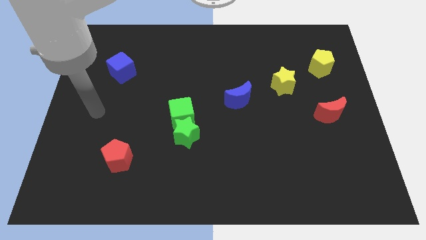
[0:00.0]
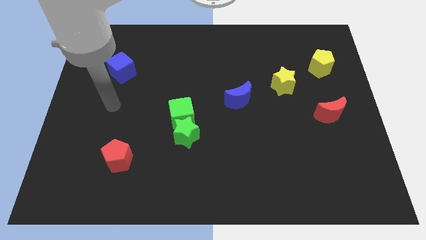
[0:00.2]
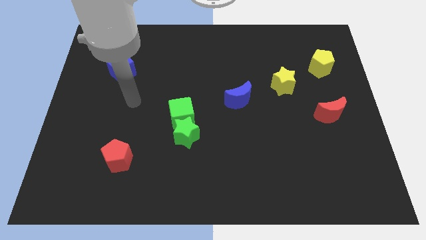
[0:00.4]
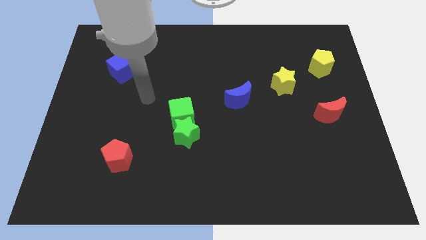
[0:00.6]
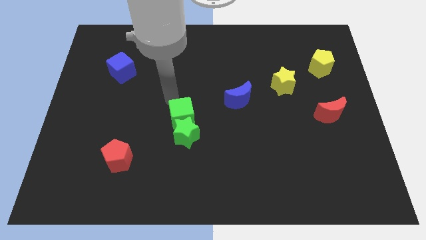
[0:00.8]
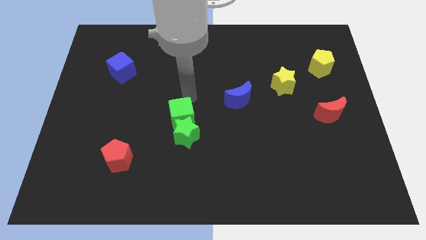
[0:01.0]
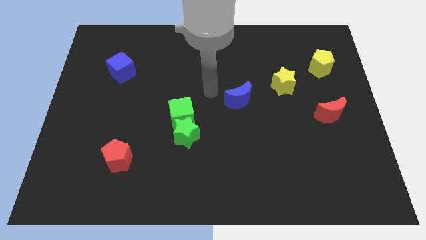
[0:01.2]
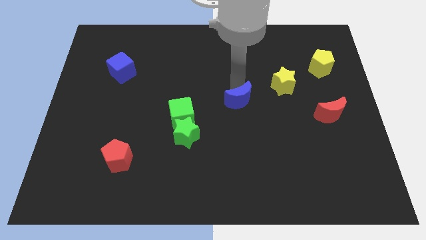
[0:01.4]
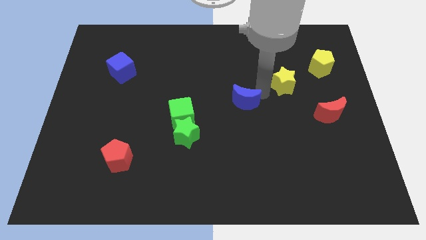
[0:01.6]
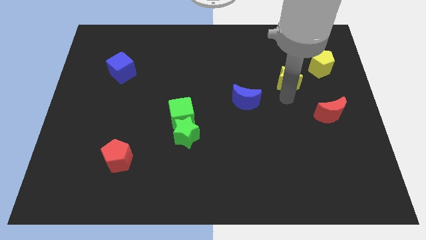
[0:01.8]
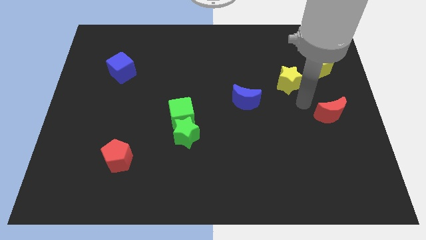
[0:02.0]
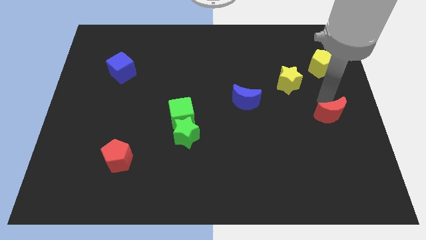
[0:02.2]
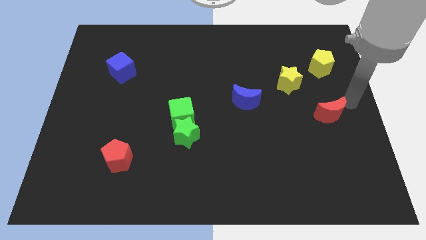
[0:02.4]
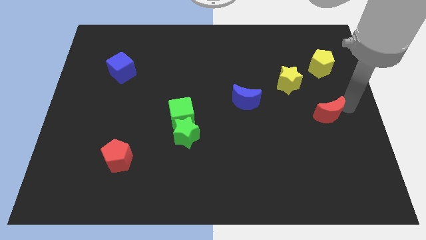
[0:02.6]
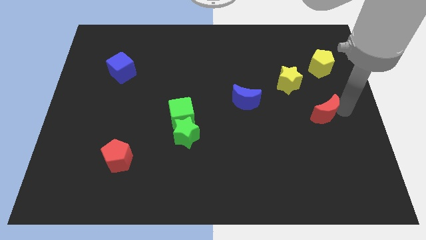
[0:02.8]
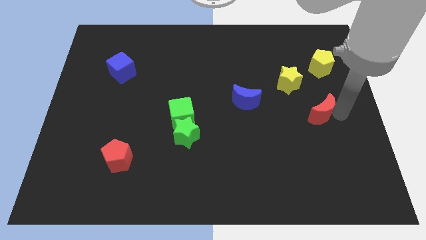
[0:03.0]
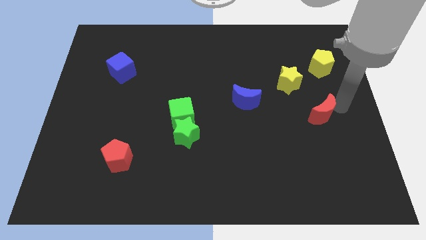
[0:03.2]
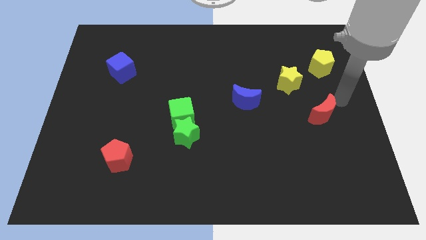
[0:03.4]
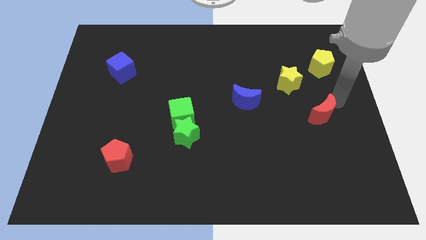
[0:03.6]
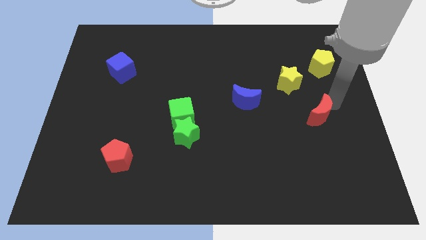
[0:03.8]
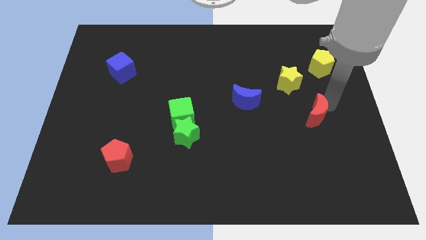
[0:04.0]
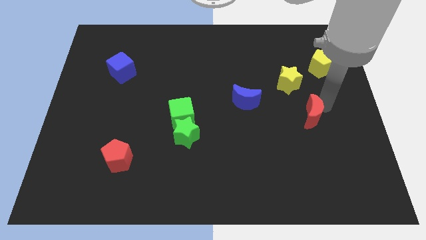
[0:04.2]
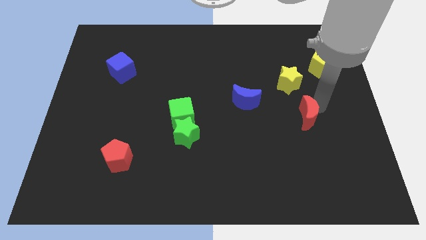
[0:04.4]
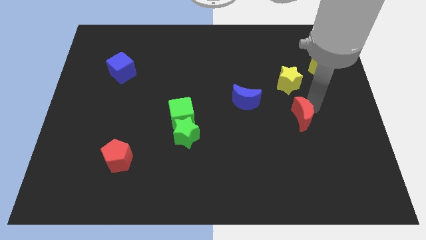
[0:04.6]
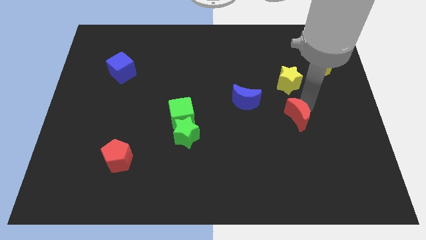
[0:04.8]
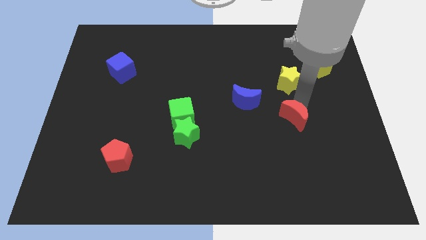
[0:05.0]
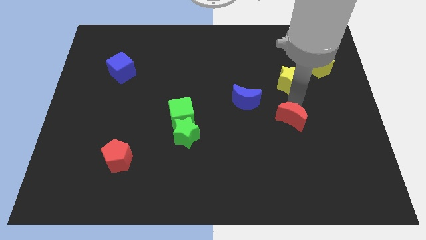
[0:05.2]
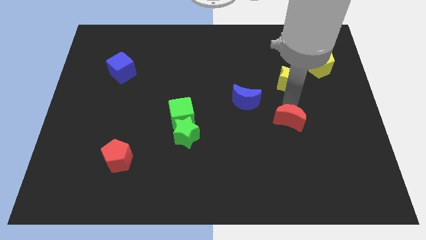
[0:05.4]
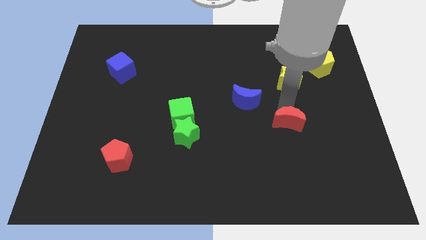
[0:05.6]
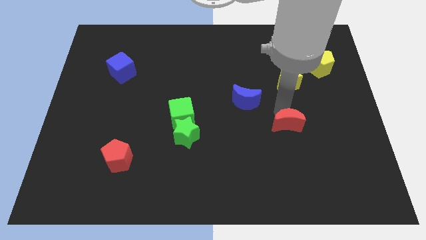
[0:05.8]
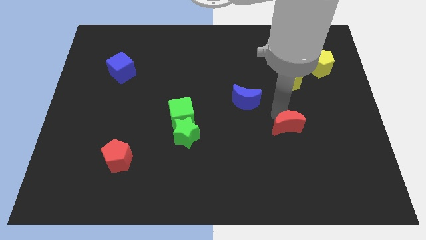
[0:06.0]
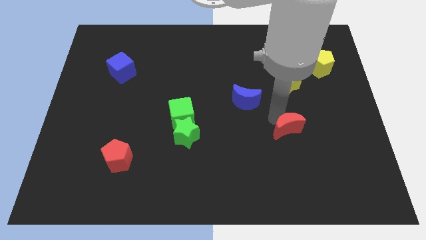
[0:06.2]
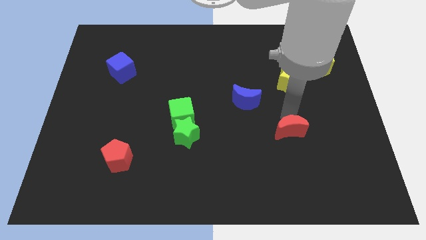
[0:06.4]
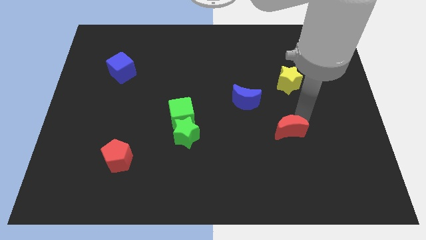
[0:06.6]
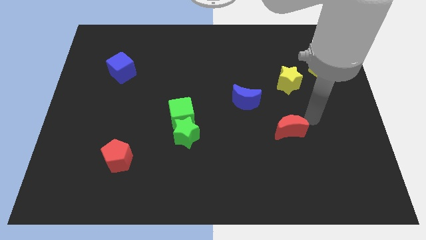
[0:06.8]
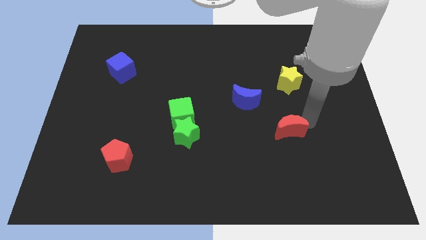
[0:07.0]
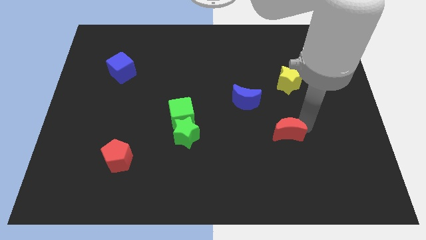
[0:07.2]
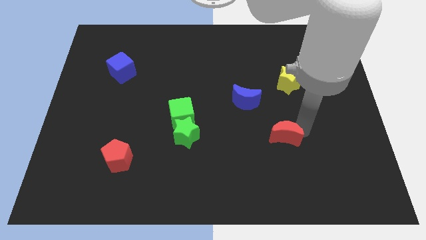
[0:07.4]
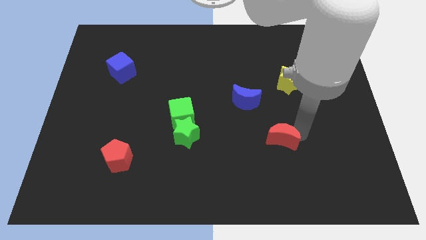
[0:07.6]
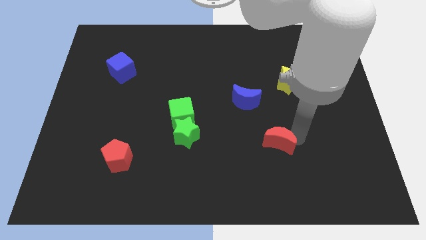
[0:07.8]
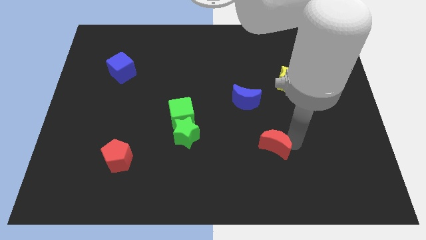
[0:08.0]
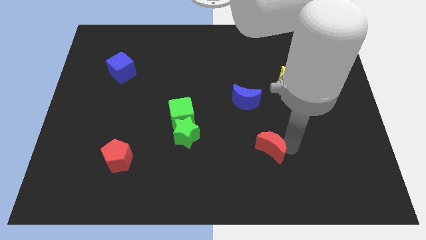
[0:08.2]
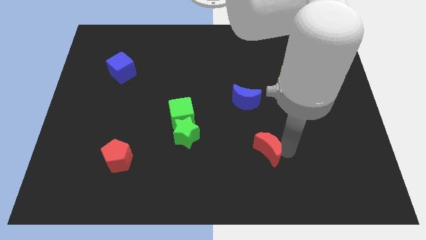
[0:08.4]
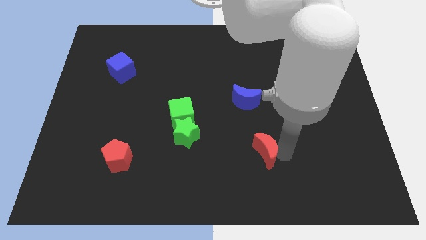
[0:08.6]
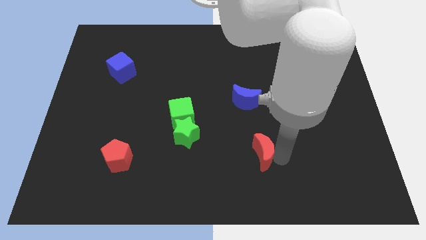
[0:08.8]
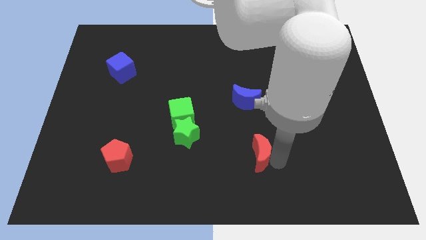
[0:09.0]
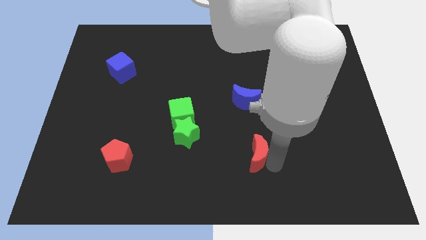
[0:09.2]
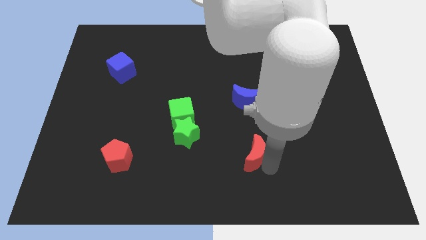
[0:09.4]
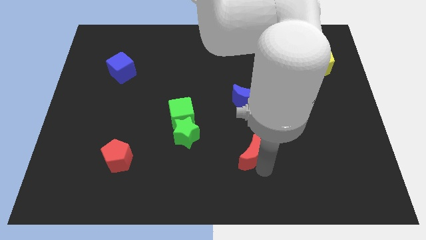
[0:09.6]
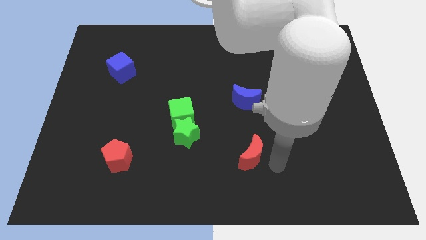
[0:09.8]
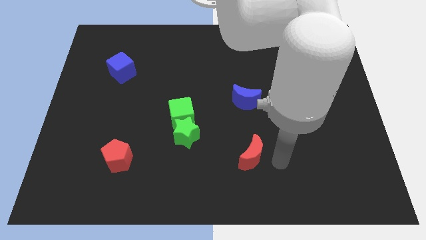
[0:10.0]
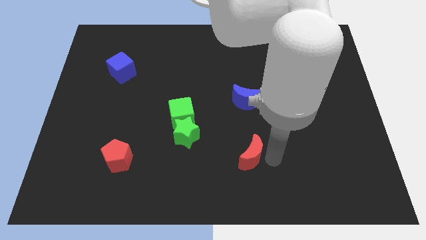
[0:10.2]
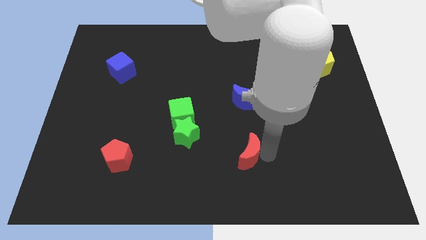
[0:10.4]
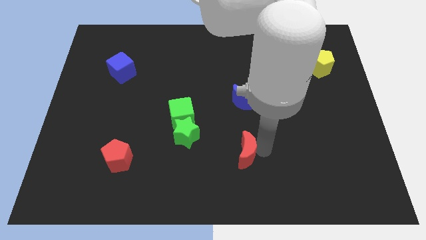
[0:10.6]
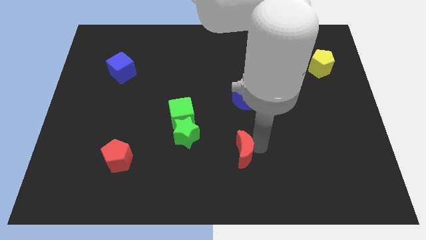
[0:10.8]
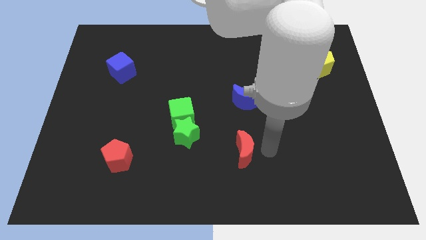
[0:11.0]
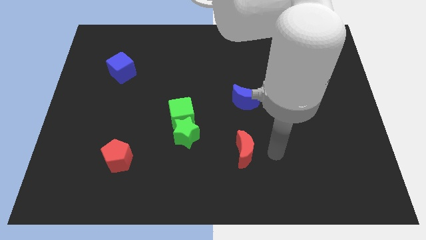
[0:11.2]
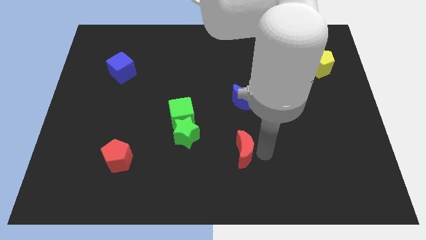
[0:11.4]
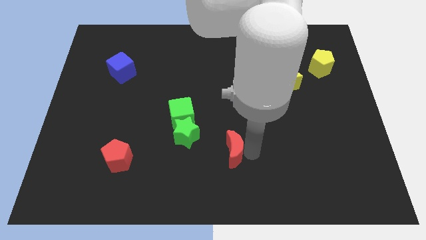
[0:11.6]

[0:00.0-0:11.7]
slide the red moon to the bottom right of the green star

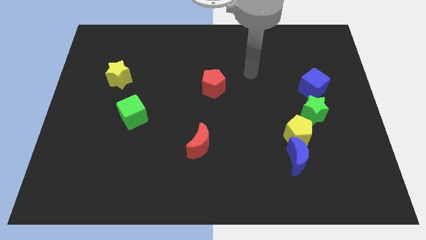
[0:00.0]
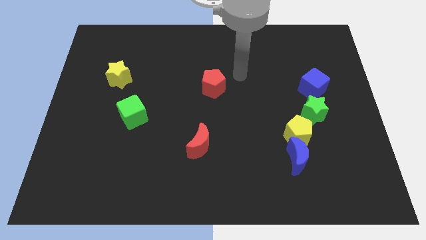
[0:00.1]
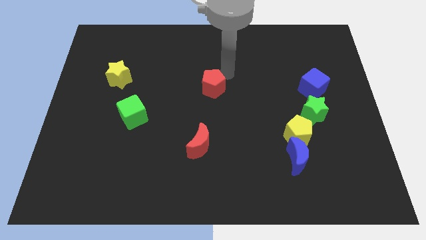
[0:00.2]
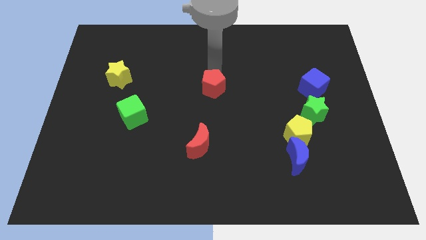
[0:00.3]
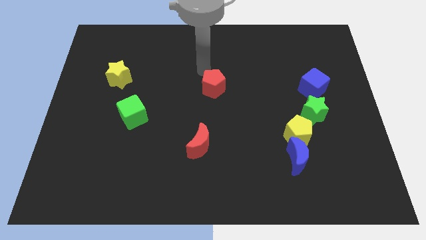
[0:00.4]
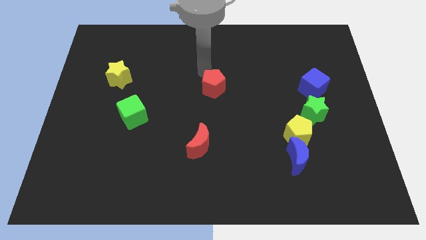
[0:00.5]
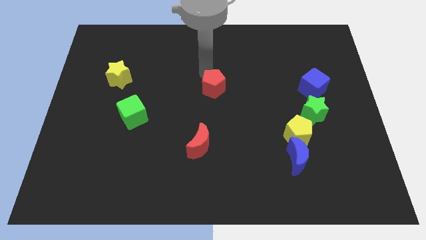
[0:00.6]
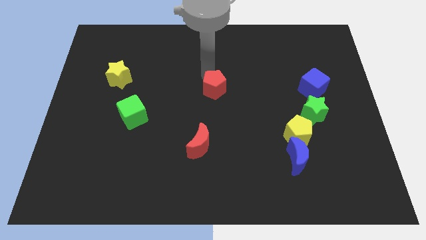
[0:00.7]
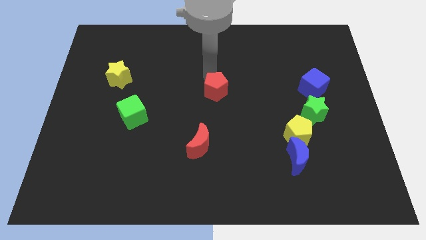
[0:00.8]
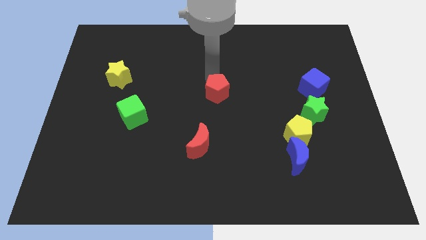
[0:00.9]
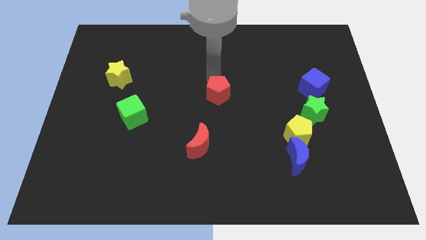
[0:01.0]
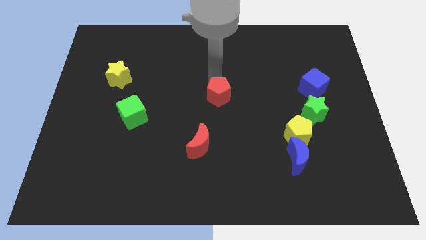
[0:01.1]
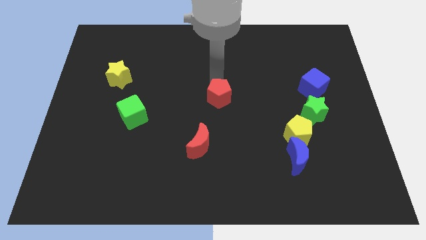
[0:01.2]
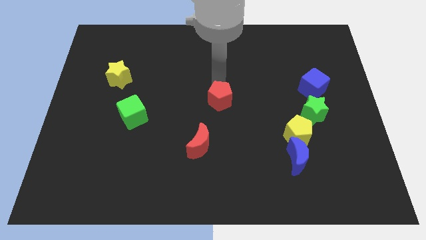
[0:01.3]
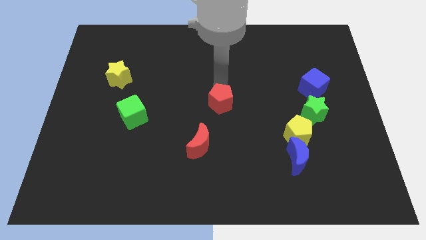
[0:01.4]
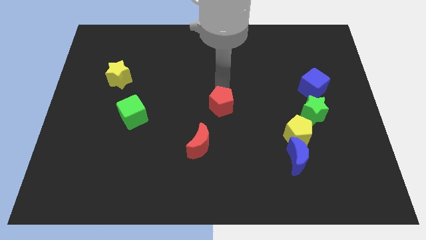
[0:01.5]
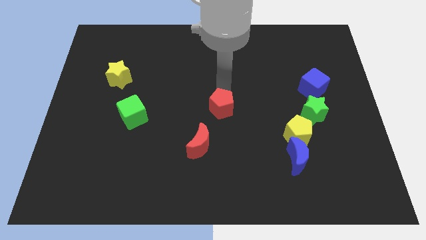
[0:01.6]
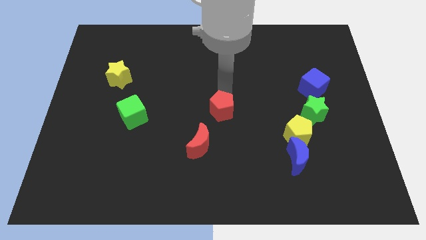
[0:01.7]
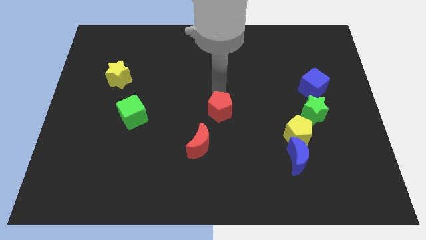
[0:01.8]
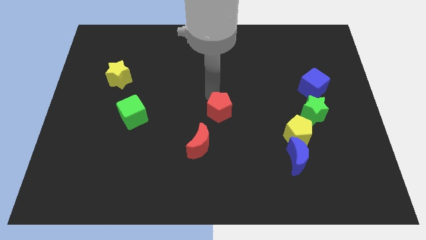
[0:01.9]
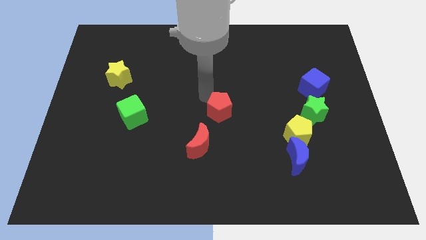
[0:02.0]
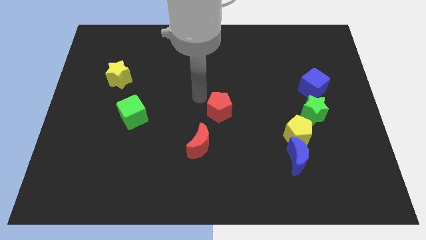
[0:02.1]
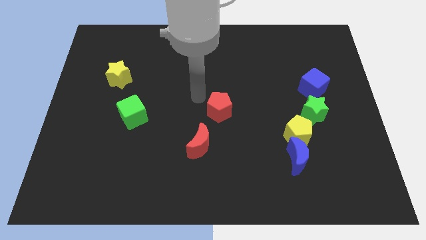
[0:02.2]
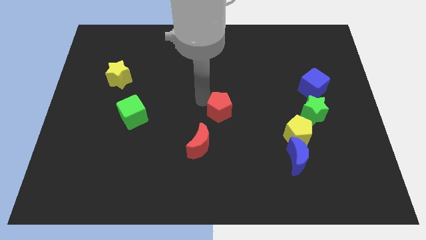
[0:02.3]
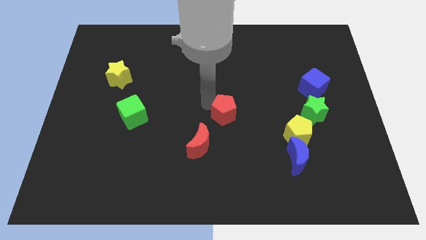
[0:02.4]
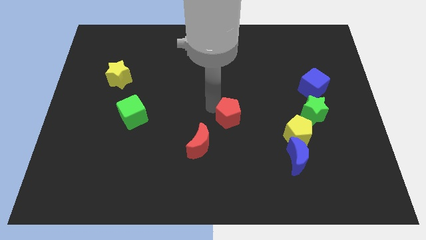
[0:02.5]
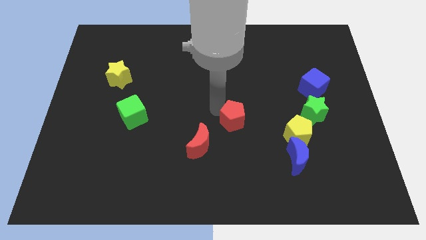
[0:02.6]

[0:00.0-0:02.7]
put the red pentagon to the left side of the yellow pentagon
